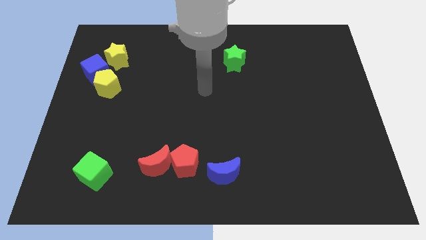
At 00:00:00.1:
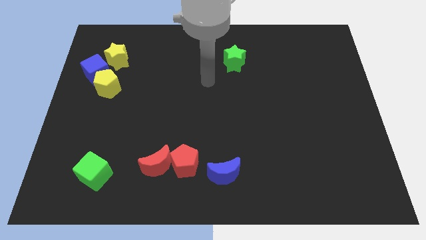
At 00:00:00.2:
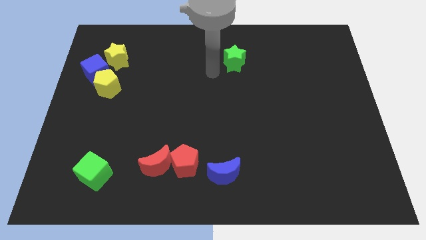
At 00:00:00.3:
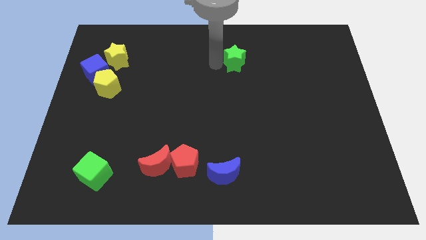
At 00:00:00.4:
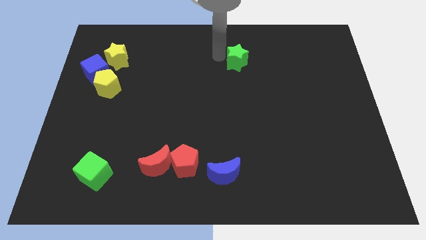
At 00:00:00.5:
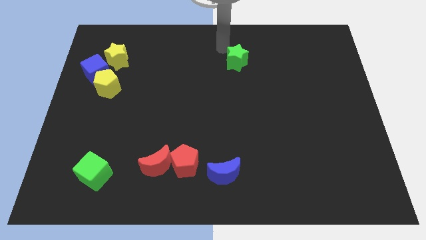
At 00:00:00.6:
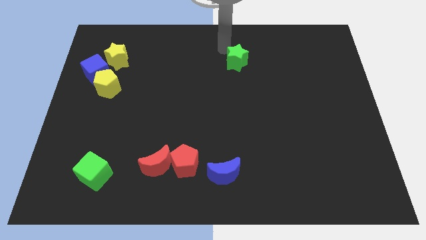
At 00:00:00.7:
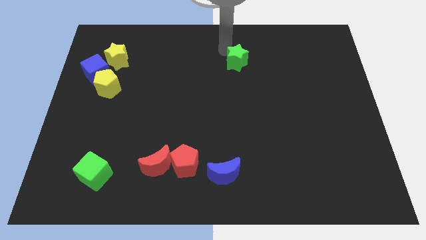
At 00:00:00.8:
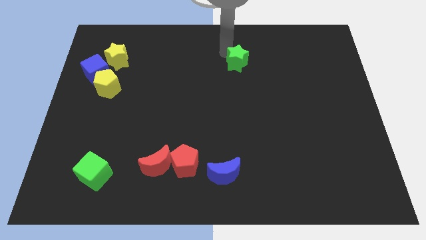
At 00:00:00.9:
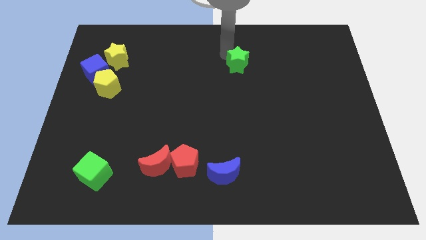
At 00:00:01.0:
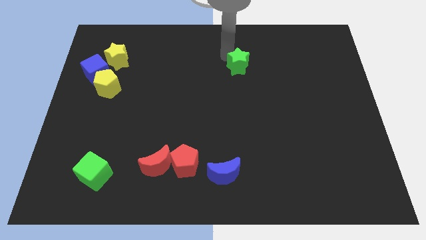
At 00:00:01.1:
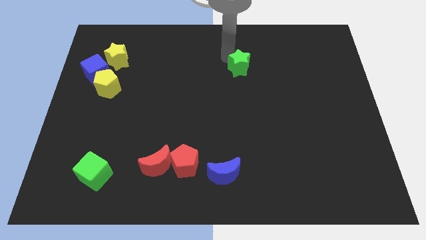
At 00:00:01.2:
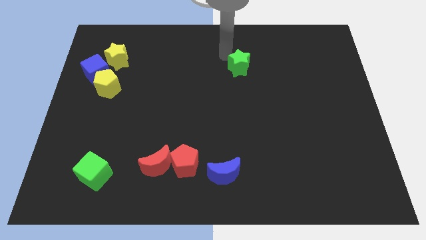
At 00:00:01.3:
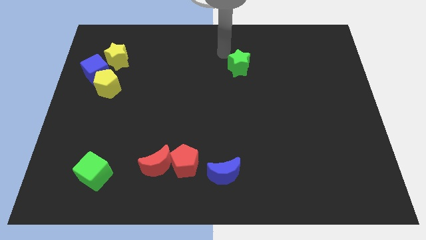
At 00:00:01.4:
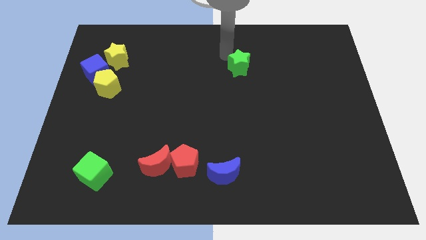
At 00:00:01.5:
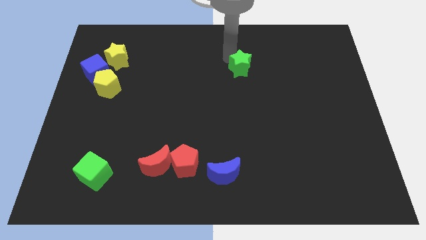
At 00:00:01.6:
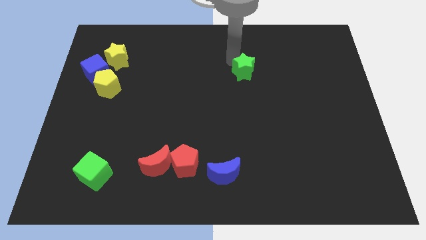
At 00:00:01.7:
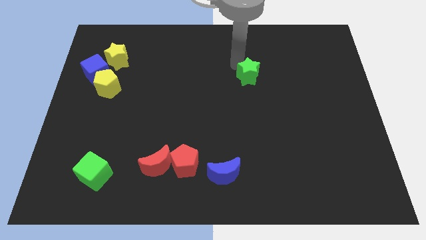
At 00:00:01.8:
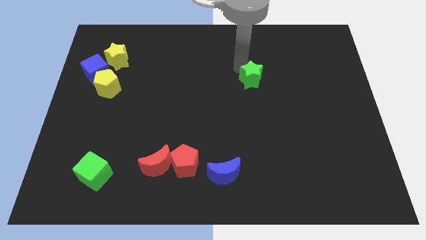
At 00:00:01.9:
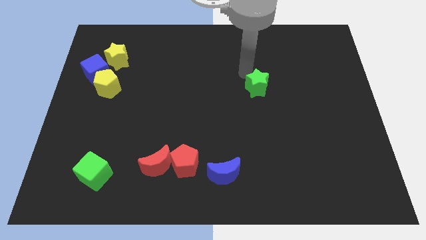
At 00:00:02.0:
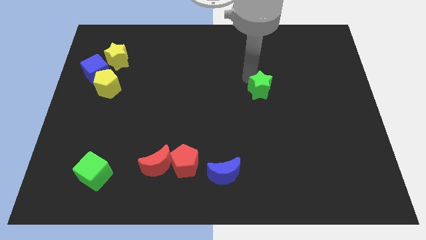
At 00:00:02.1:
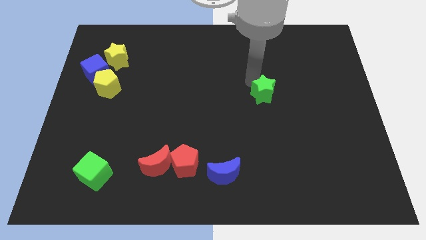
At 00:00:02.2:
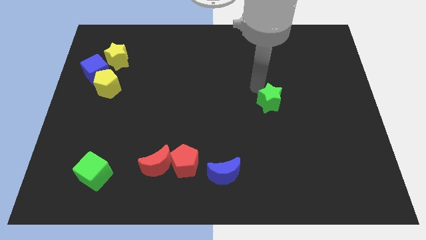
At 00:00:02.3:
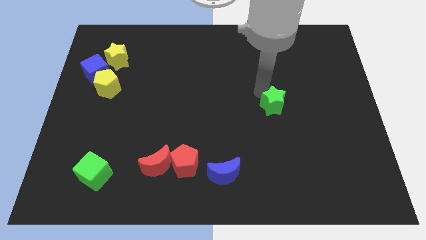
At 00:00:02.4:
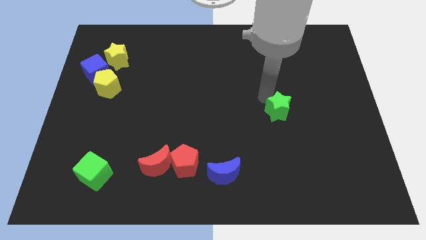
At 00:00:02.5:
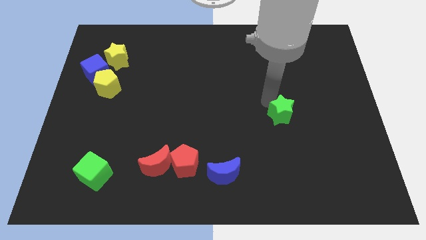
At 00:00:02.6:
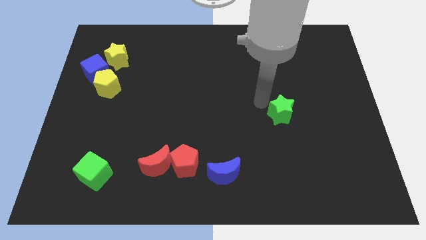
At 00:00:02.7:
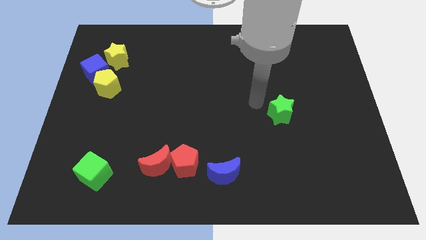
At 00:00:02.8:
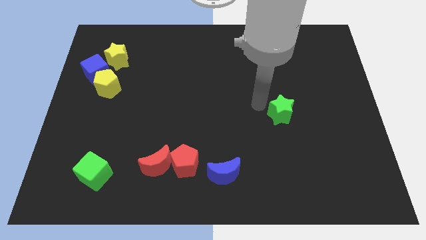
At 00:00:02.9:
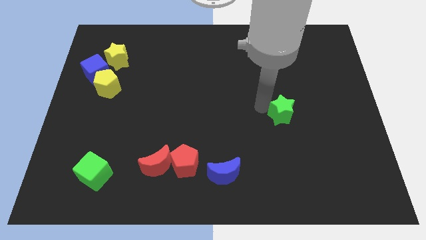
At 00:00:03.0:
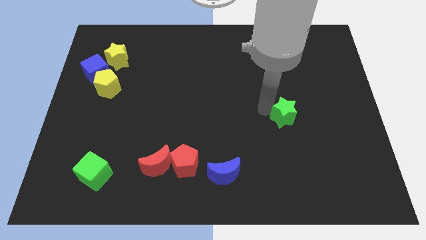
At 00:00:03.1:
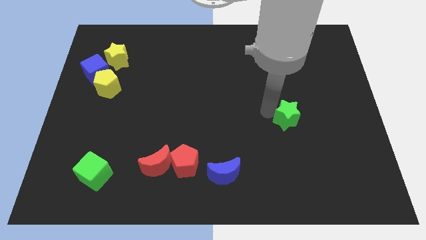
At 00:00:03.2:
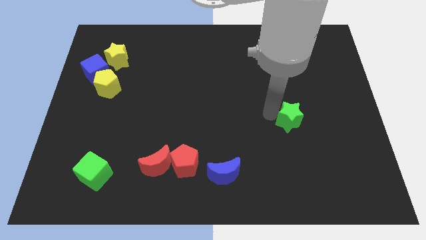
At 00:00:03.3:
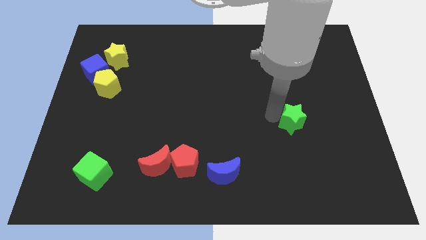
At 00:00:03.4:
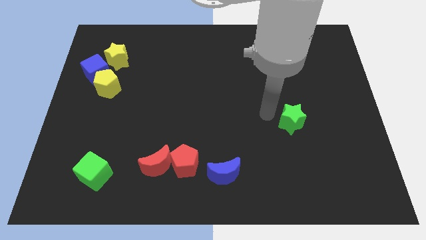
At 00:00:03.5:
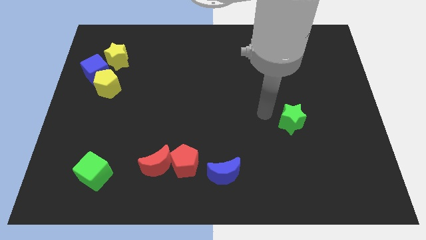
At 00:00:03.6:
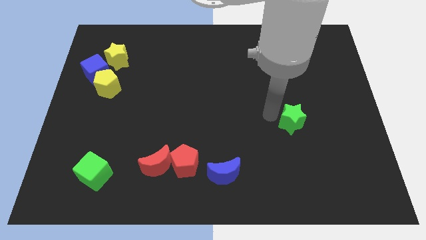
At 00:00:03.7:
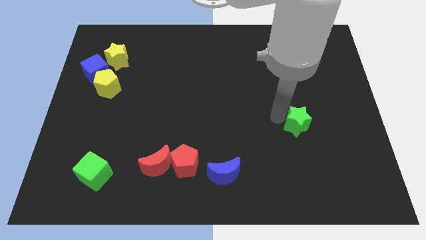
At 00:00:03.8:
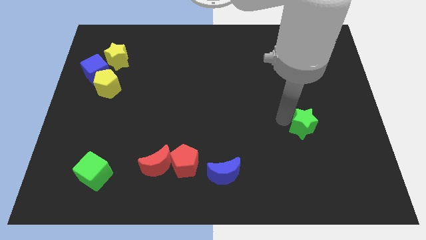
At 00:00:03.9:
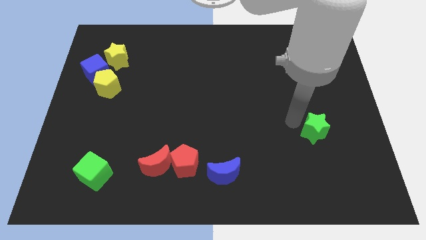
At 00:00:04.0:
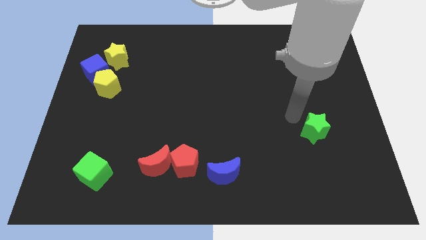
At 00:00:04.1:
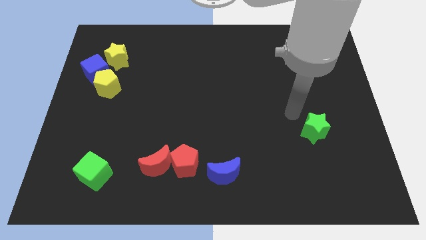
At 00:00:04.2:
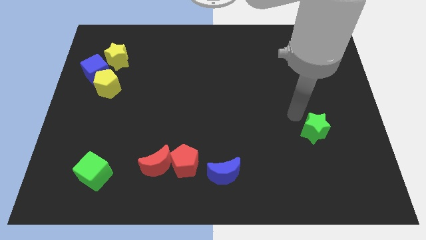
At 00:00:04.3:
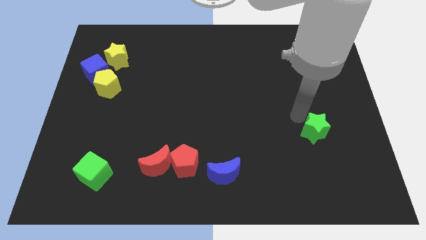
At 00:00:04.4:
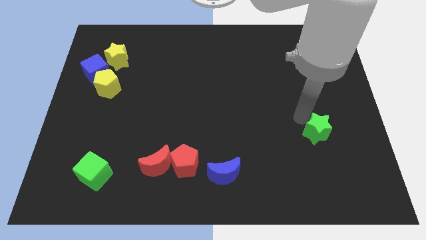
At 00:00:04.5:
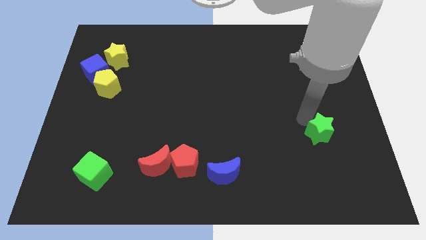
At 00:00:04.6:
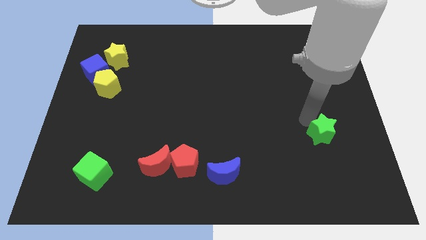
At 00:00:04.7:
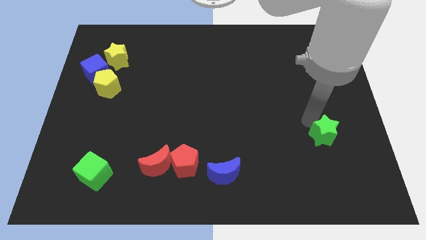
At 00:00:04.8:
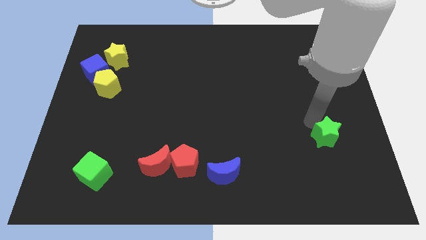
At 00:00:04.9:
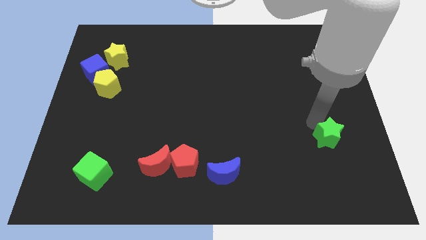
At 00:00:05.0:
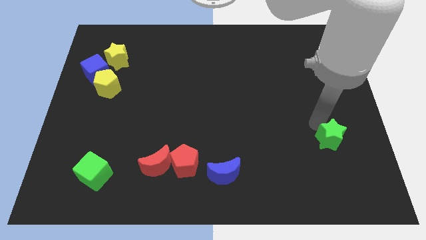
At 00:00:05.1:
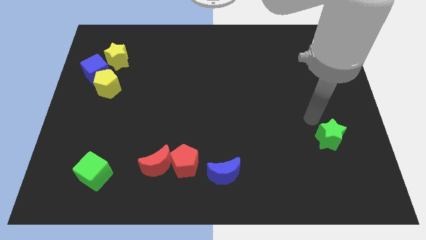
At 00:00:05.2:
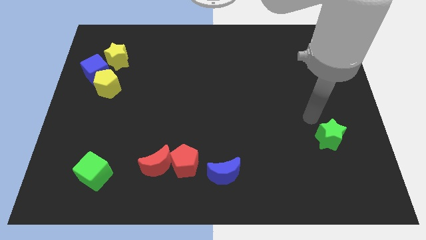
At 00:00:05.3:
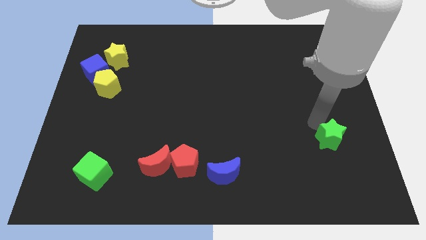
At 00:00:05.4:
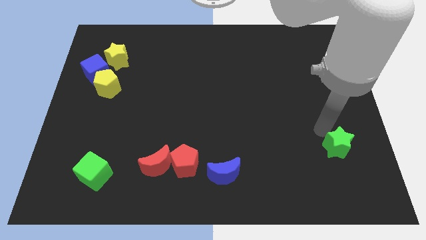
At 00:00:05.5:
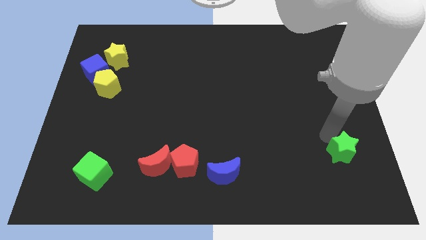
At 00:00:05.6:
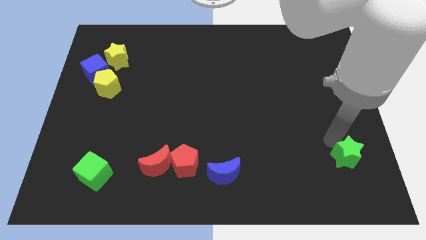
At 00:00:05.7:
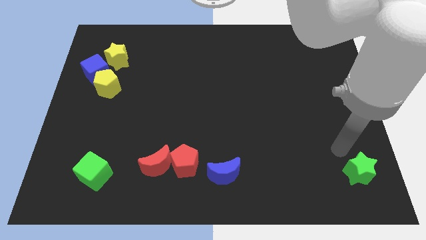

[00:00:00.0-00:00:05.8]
move the green star to the lower right corner
